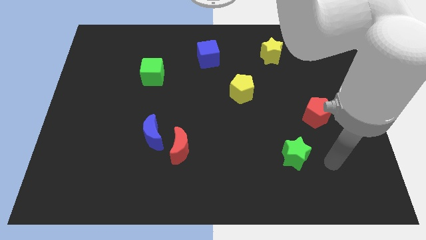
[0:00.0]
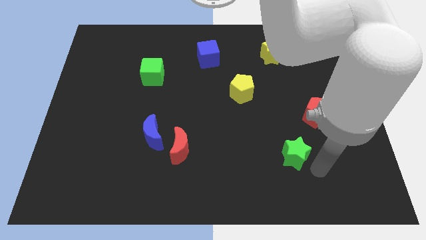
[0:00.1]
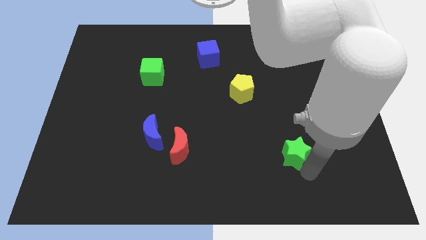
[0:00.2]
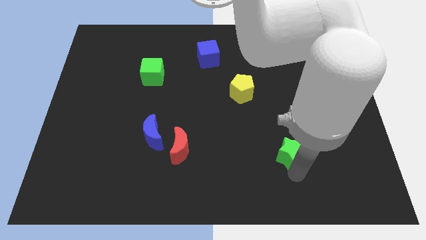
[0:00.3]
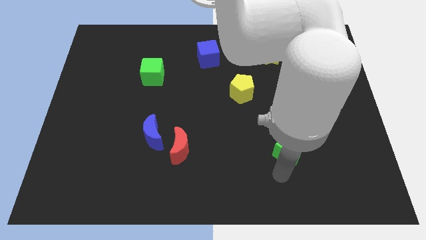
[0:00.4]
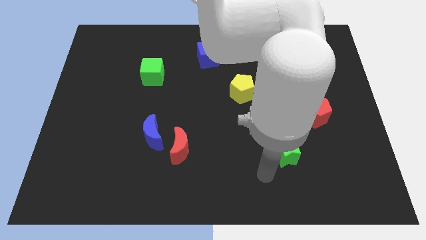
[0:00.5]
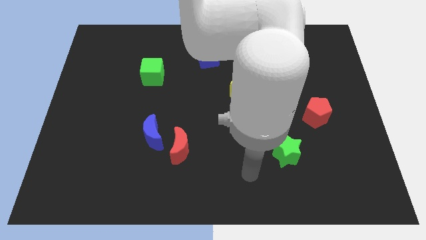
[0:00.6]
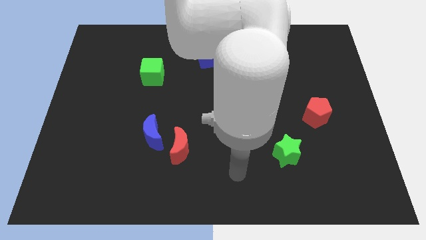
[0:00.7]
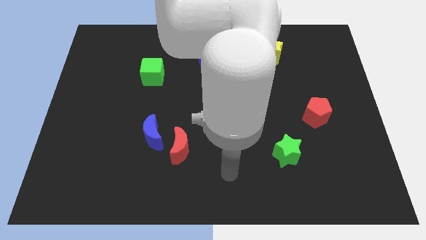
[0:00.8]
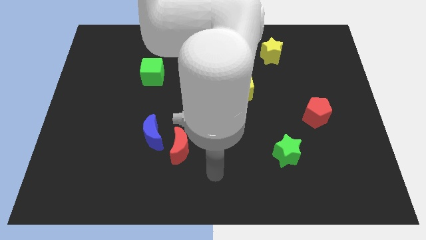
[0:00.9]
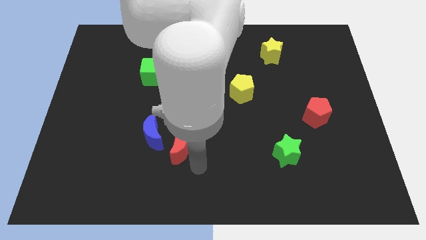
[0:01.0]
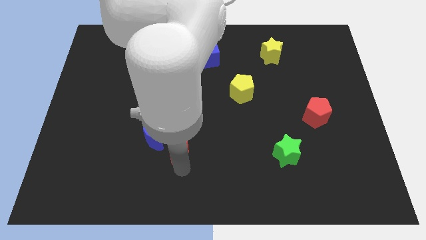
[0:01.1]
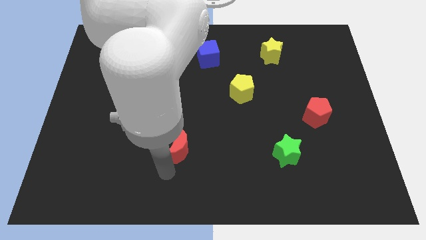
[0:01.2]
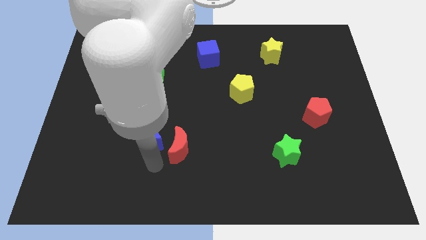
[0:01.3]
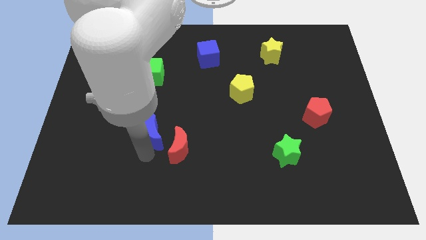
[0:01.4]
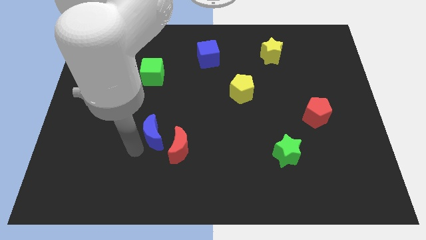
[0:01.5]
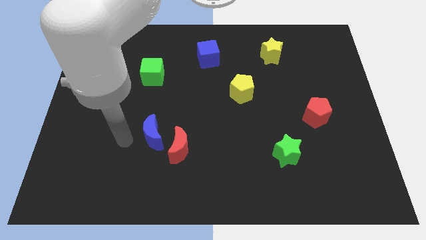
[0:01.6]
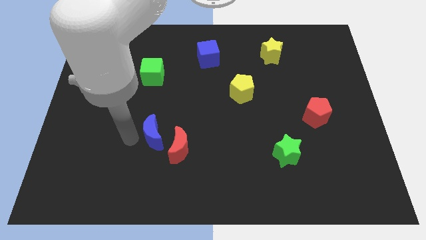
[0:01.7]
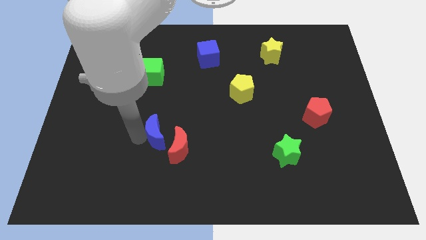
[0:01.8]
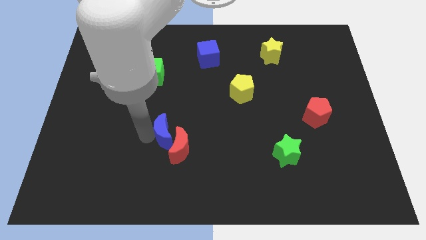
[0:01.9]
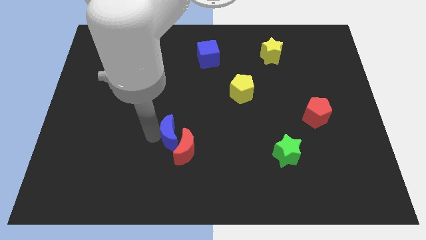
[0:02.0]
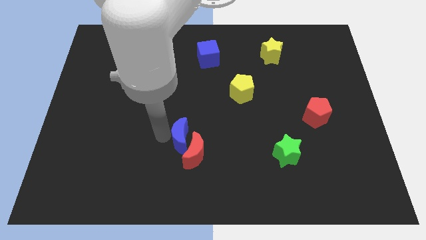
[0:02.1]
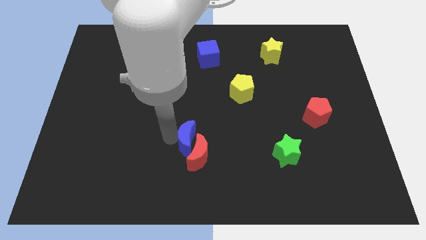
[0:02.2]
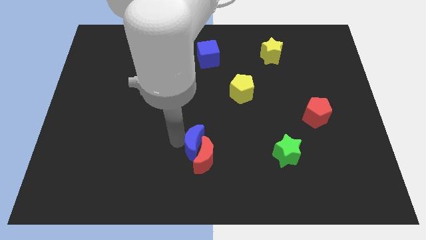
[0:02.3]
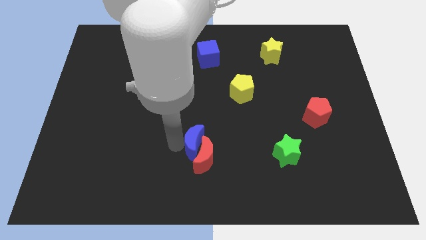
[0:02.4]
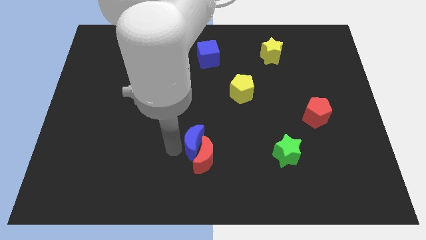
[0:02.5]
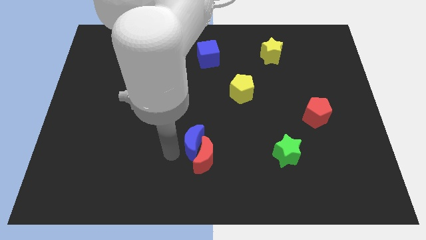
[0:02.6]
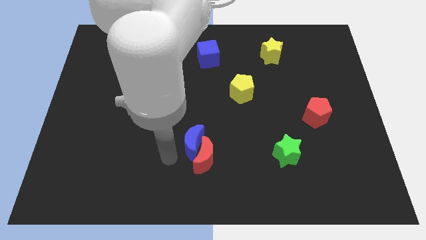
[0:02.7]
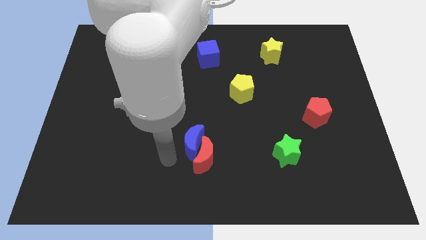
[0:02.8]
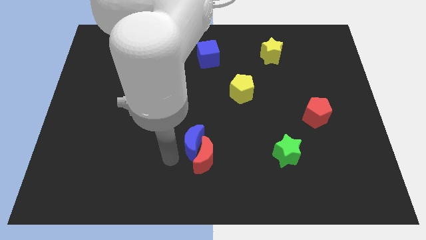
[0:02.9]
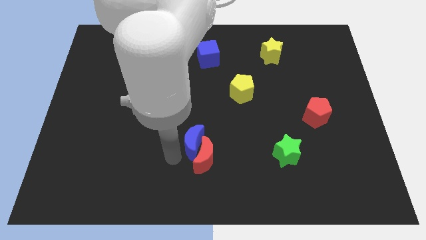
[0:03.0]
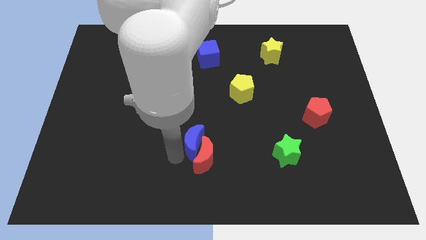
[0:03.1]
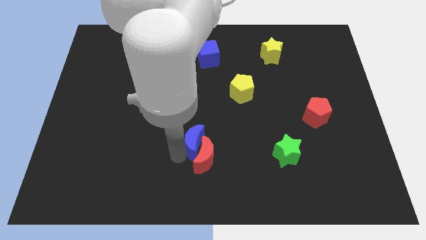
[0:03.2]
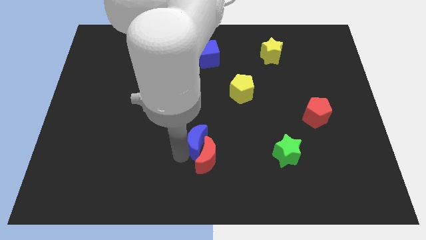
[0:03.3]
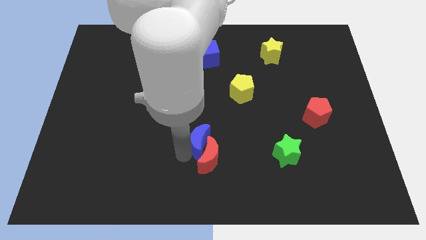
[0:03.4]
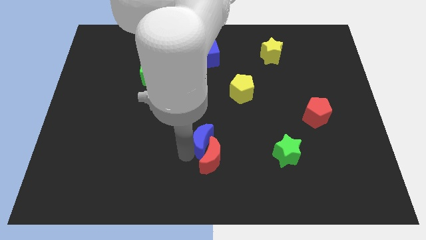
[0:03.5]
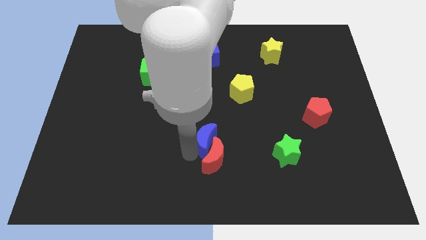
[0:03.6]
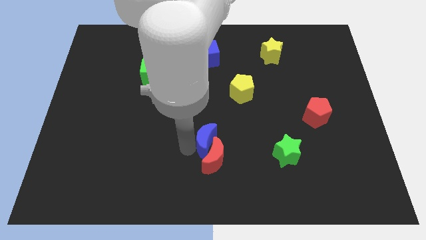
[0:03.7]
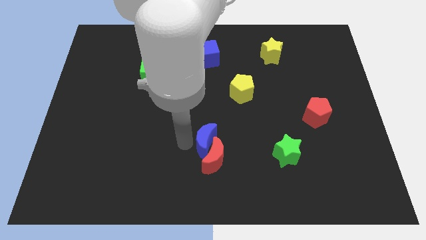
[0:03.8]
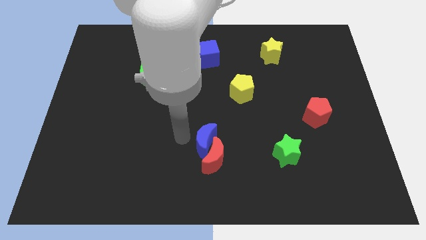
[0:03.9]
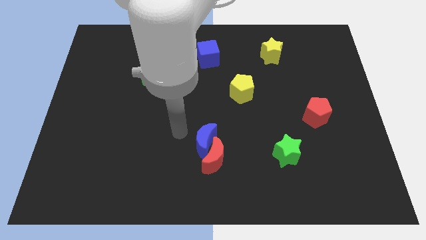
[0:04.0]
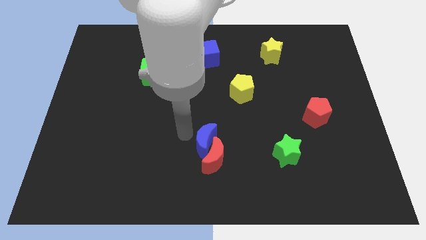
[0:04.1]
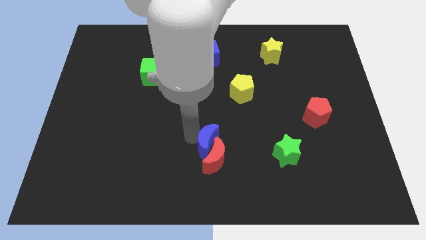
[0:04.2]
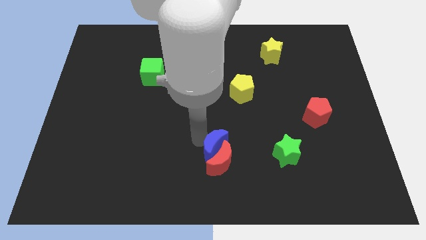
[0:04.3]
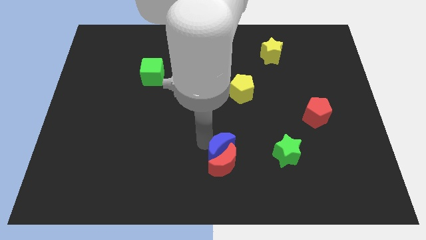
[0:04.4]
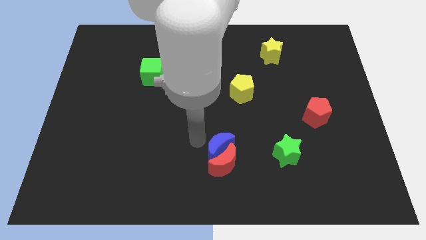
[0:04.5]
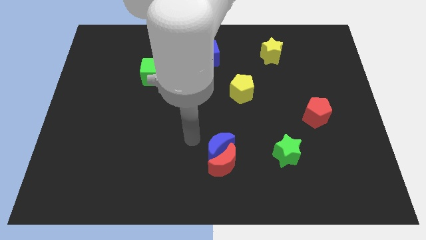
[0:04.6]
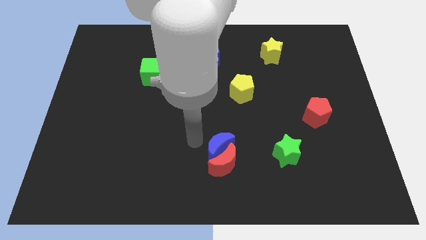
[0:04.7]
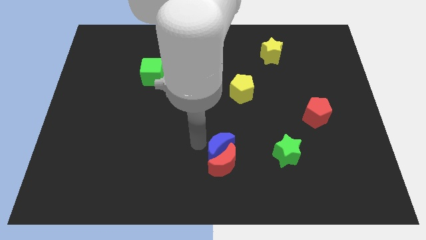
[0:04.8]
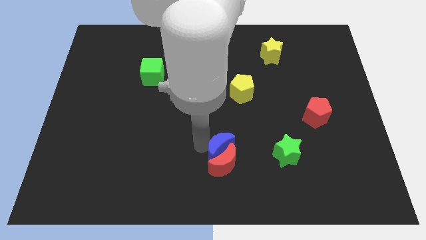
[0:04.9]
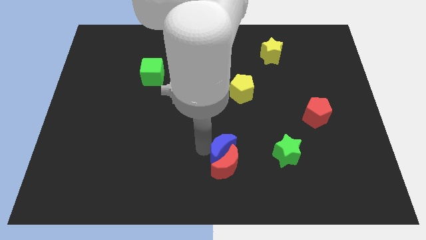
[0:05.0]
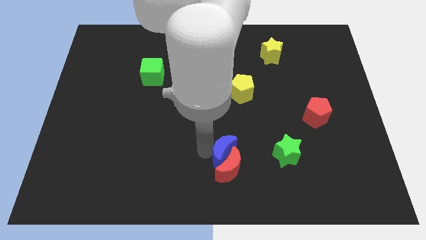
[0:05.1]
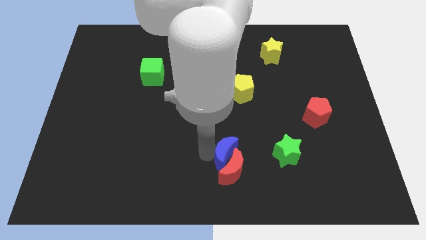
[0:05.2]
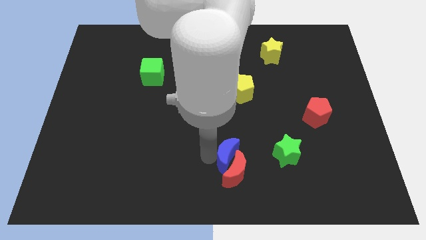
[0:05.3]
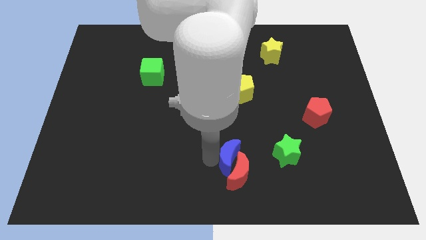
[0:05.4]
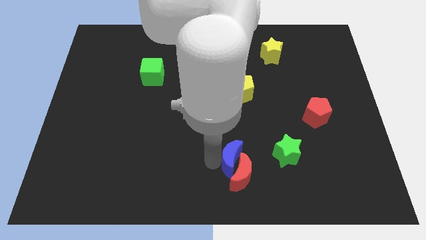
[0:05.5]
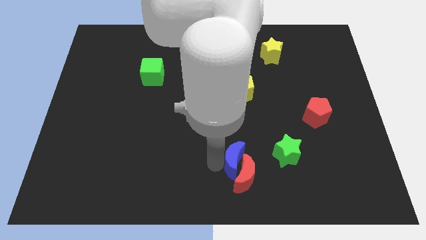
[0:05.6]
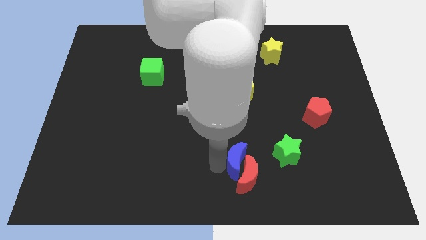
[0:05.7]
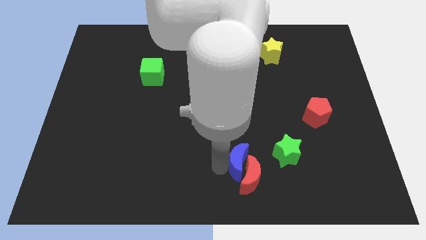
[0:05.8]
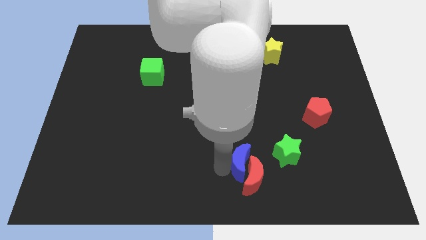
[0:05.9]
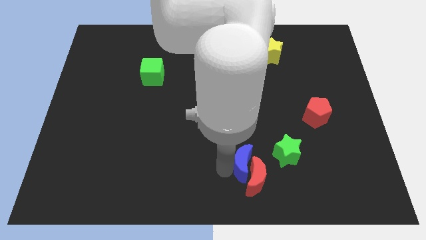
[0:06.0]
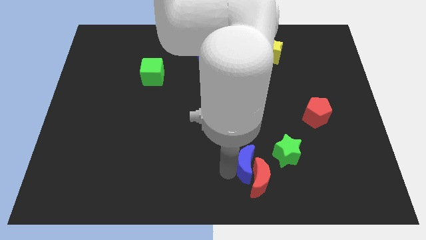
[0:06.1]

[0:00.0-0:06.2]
slide the blue moon to the bottom left side of the green star
